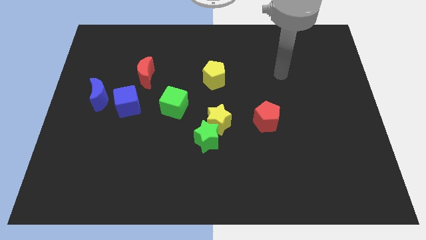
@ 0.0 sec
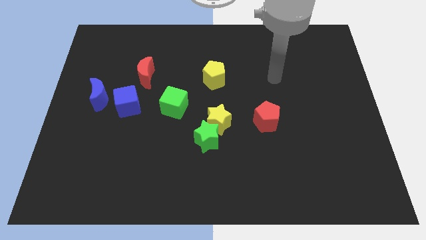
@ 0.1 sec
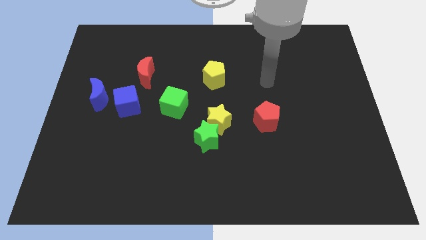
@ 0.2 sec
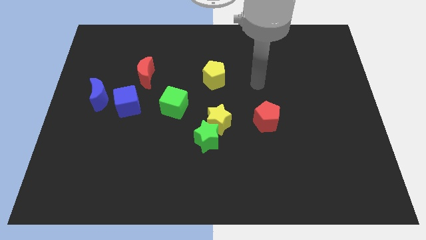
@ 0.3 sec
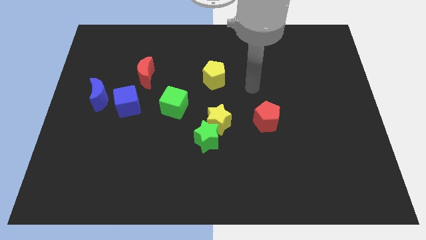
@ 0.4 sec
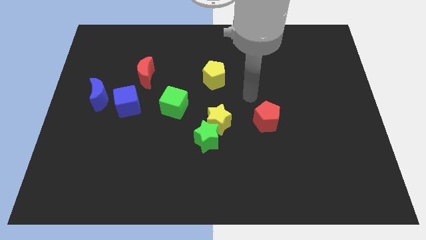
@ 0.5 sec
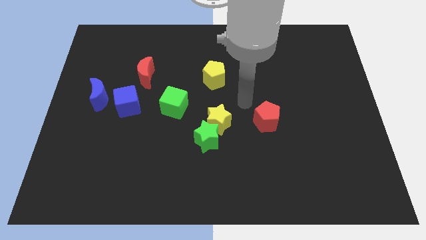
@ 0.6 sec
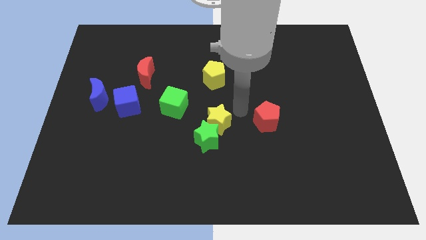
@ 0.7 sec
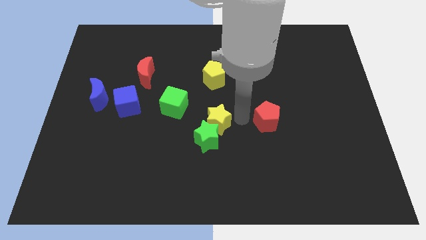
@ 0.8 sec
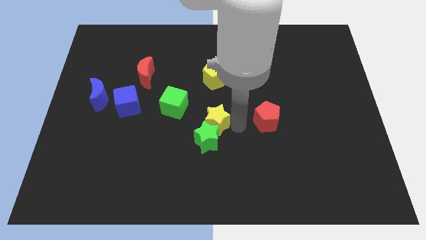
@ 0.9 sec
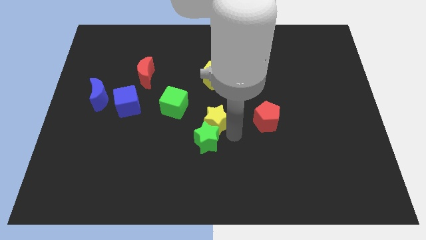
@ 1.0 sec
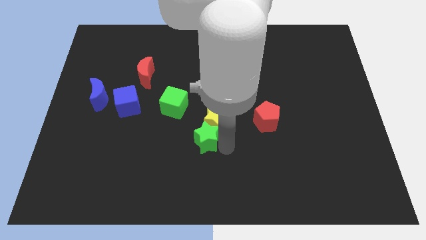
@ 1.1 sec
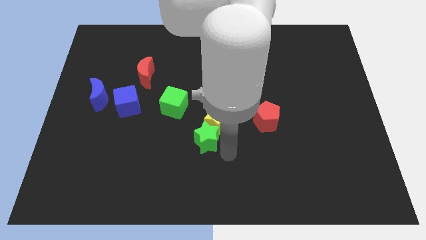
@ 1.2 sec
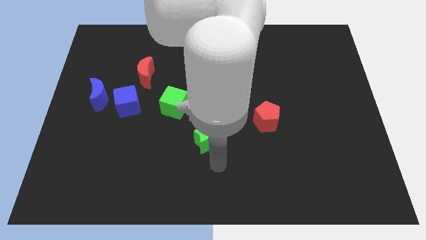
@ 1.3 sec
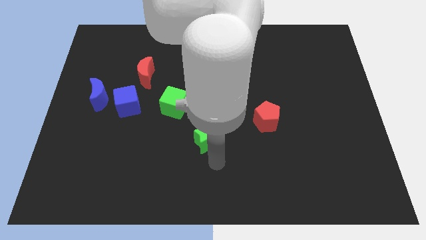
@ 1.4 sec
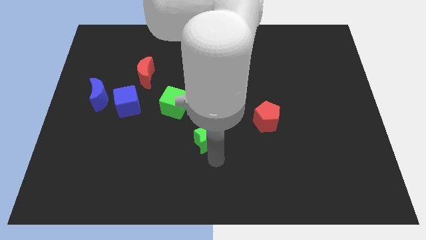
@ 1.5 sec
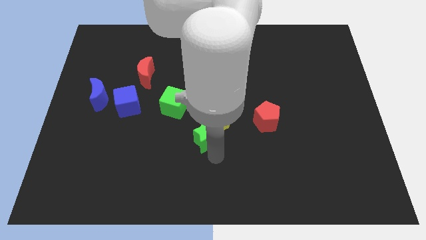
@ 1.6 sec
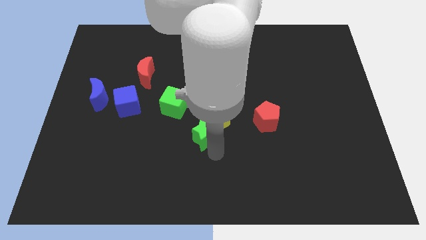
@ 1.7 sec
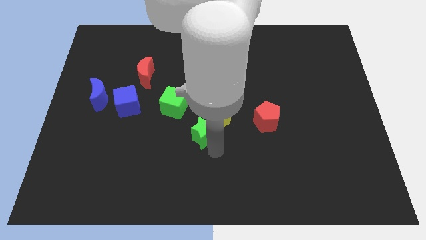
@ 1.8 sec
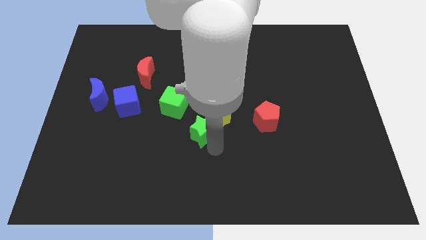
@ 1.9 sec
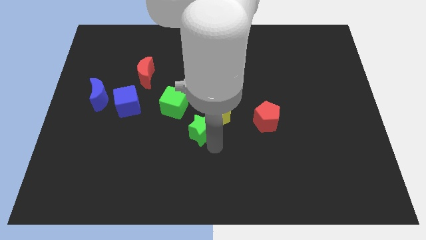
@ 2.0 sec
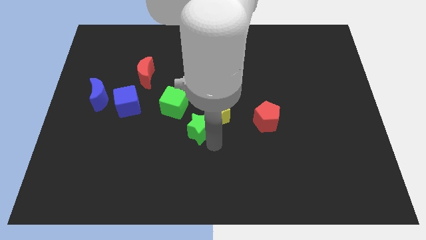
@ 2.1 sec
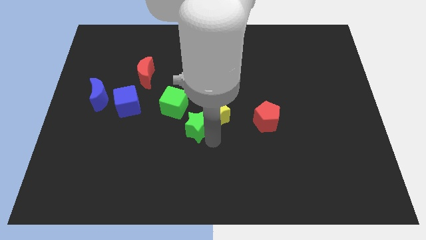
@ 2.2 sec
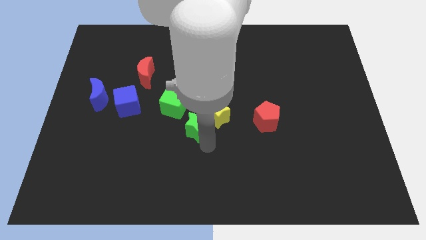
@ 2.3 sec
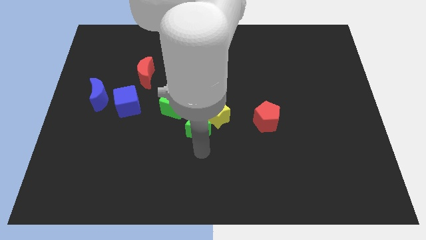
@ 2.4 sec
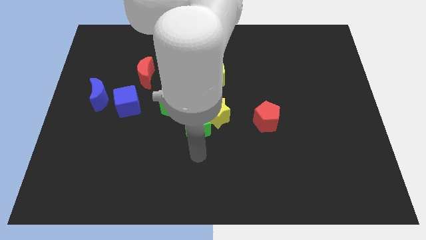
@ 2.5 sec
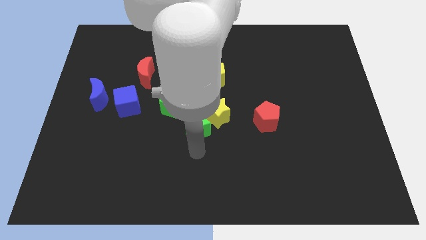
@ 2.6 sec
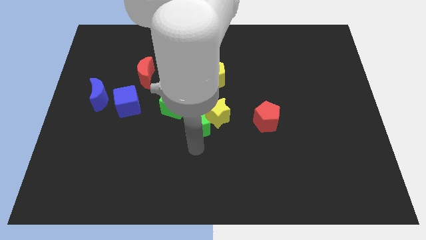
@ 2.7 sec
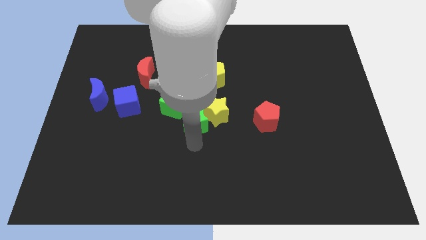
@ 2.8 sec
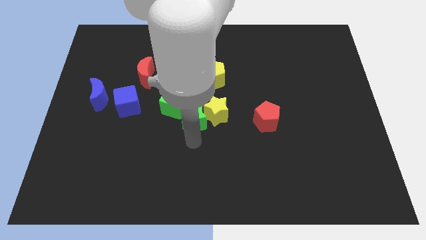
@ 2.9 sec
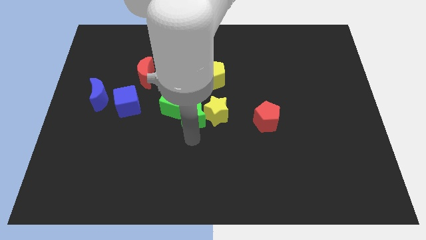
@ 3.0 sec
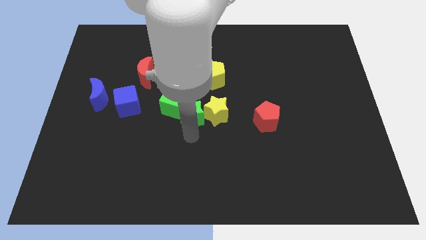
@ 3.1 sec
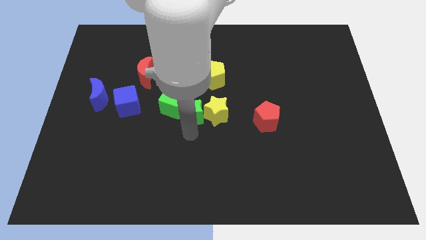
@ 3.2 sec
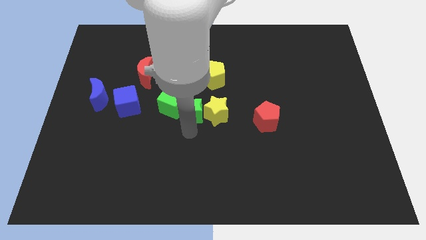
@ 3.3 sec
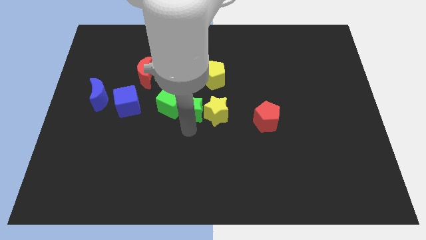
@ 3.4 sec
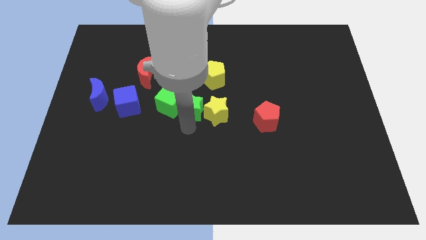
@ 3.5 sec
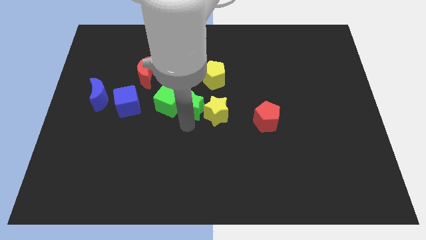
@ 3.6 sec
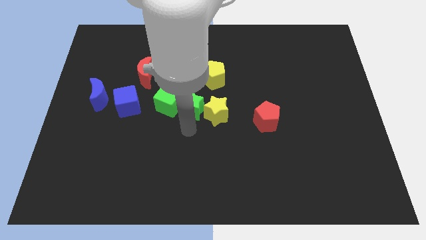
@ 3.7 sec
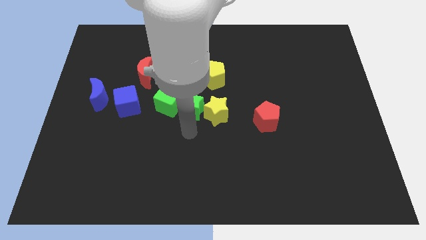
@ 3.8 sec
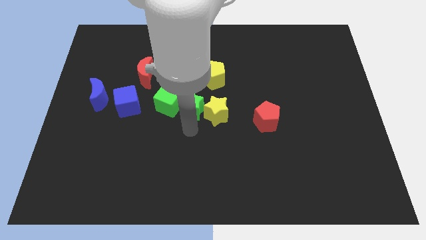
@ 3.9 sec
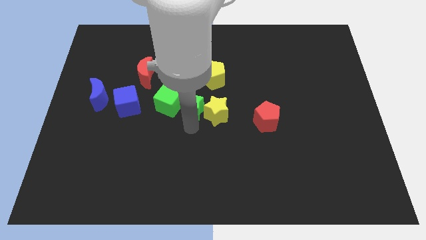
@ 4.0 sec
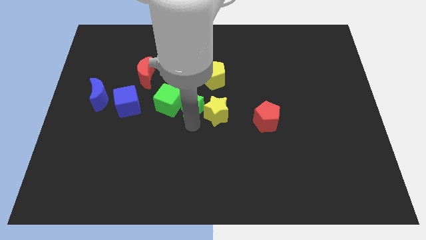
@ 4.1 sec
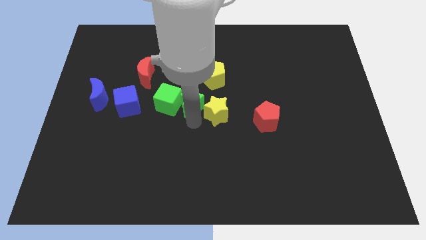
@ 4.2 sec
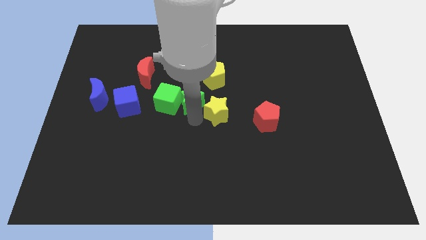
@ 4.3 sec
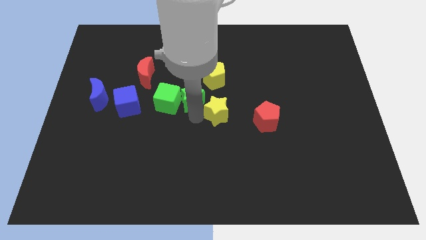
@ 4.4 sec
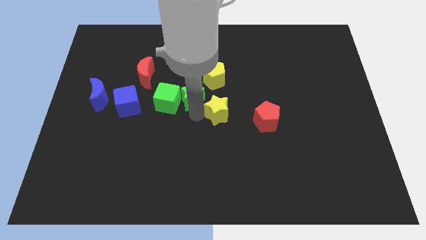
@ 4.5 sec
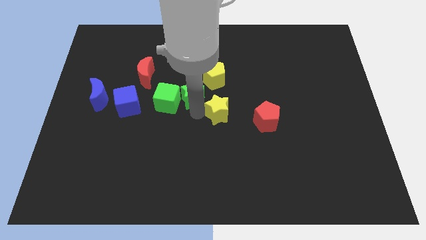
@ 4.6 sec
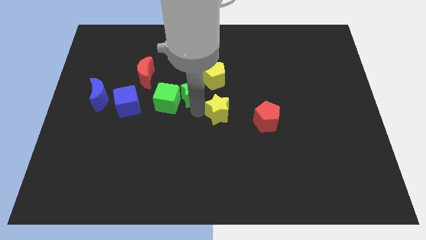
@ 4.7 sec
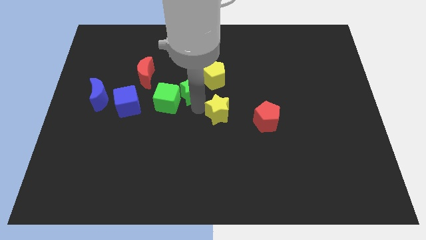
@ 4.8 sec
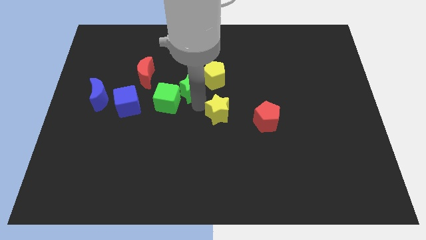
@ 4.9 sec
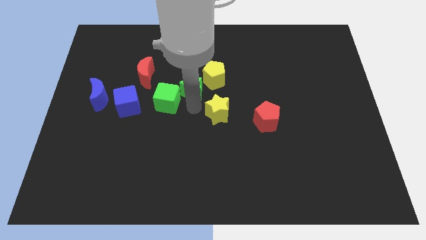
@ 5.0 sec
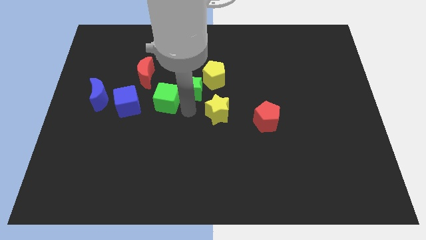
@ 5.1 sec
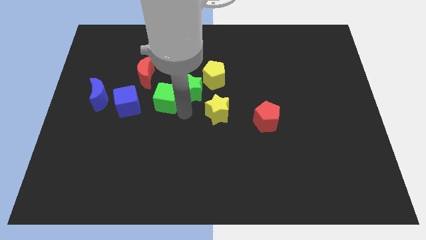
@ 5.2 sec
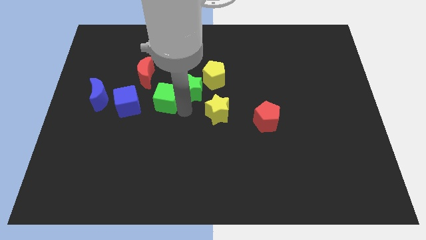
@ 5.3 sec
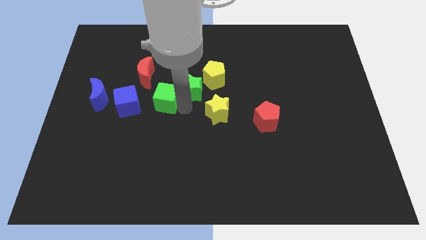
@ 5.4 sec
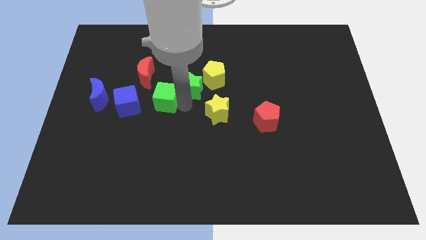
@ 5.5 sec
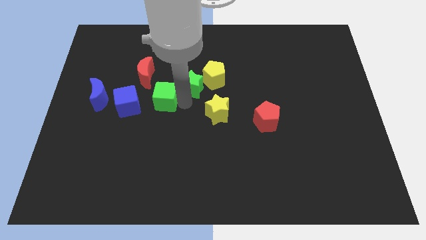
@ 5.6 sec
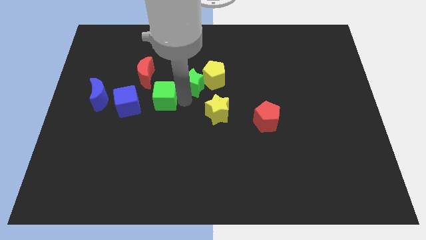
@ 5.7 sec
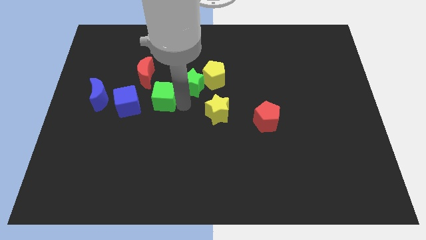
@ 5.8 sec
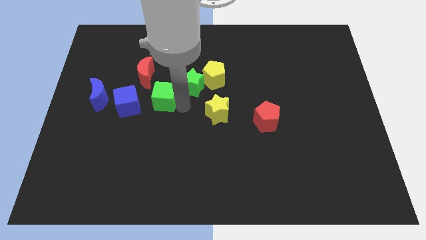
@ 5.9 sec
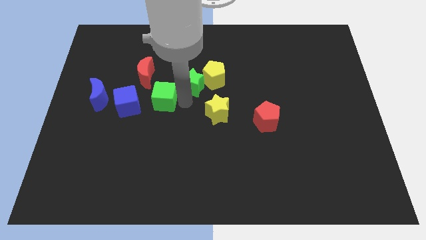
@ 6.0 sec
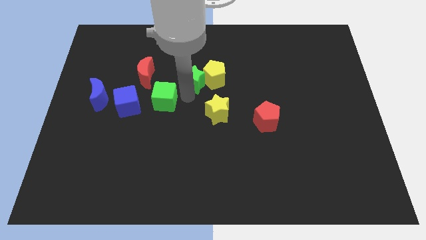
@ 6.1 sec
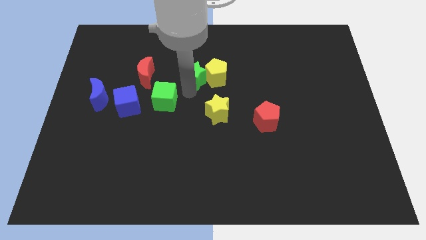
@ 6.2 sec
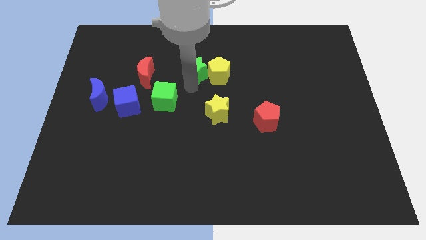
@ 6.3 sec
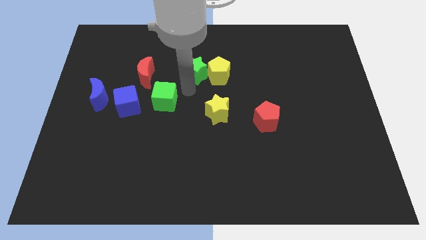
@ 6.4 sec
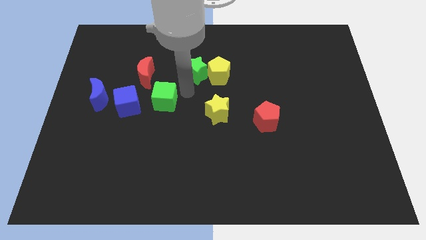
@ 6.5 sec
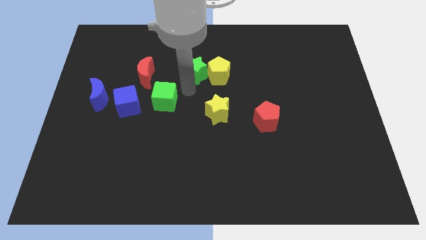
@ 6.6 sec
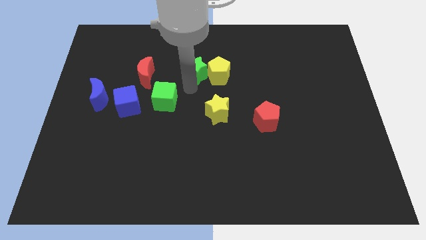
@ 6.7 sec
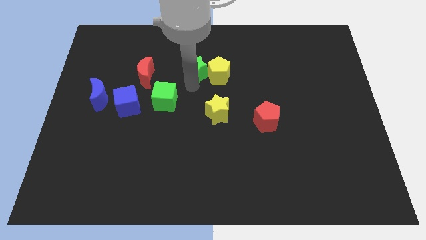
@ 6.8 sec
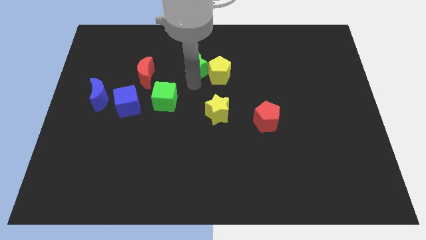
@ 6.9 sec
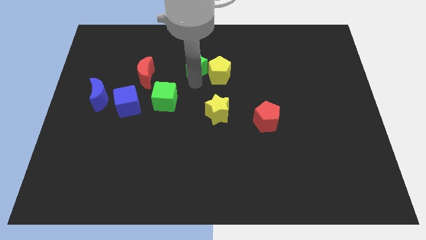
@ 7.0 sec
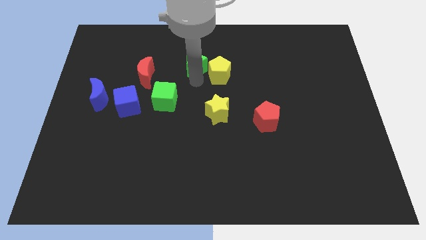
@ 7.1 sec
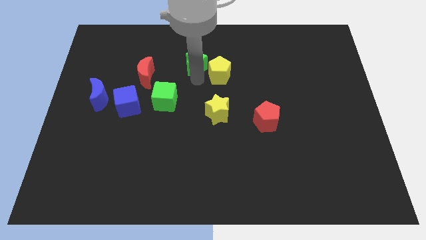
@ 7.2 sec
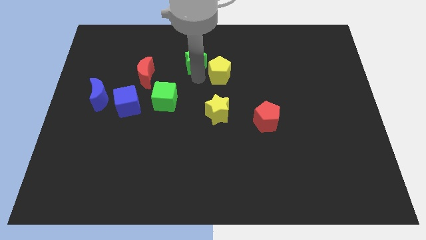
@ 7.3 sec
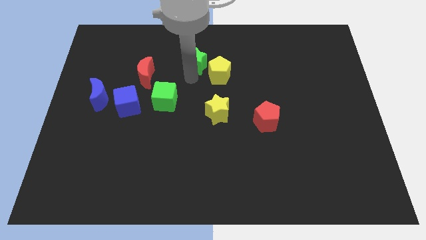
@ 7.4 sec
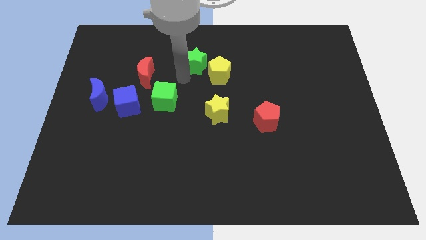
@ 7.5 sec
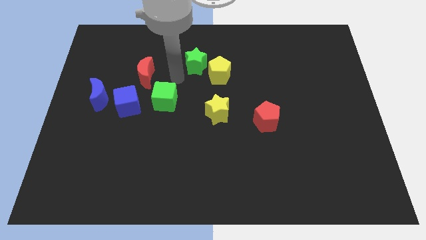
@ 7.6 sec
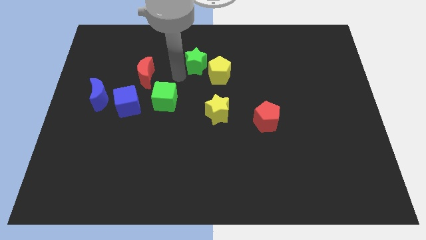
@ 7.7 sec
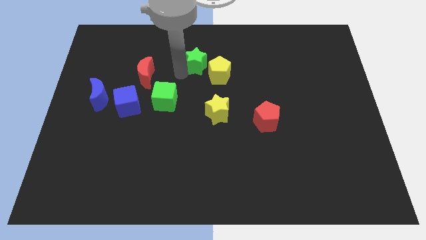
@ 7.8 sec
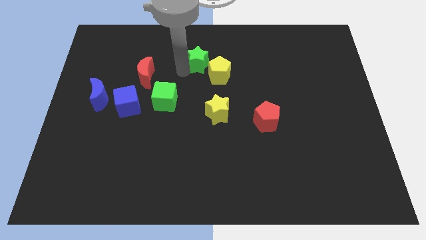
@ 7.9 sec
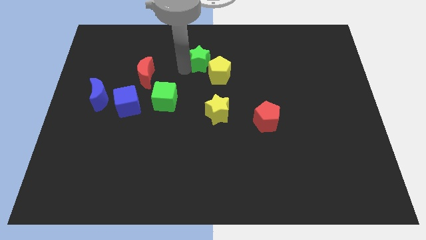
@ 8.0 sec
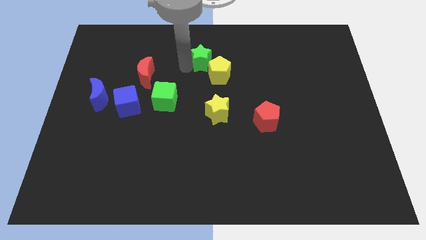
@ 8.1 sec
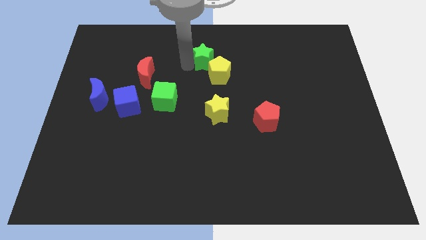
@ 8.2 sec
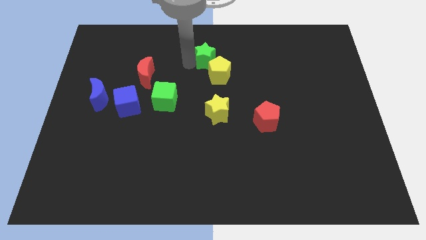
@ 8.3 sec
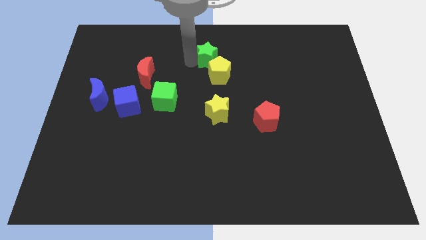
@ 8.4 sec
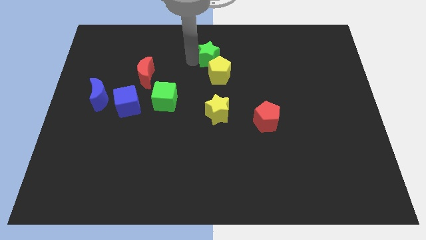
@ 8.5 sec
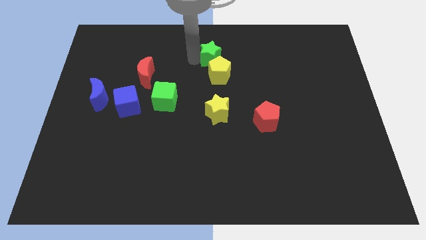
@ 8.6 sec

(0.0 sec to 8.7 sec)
put the green star to the top side
